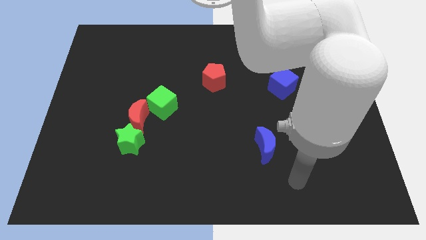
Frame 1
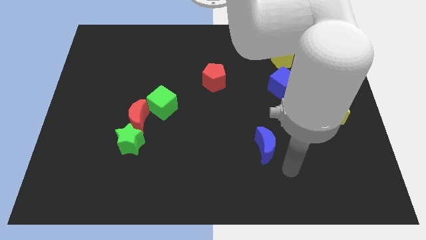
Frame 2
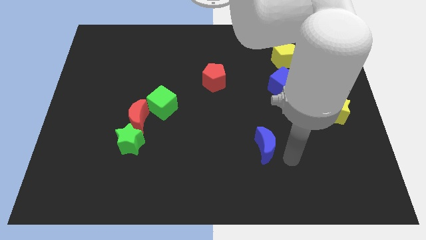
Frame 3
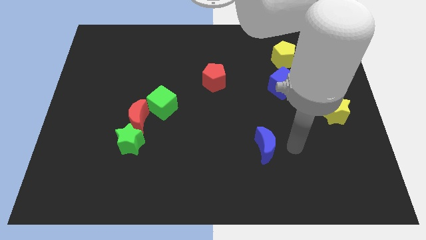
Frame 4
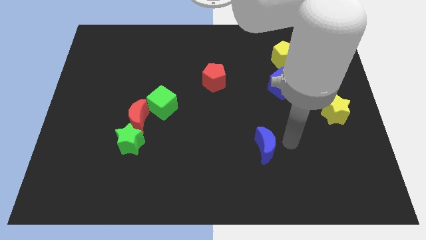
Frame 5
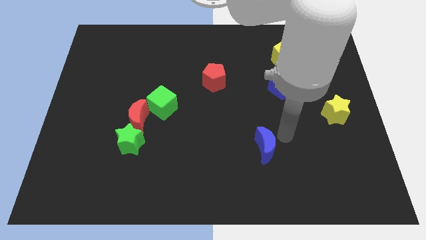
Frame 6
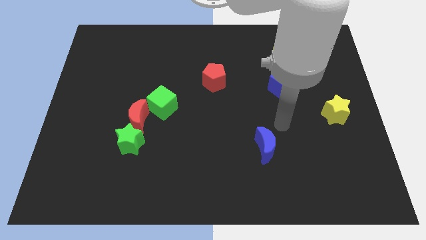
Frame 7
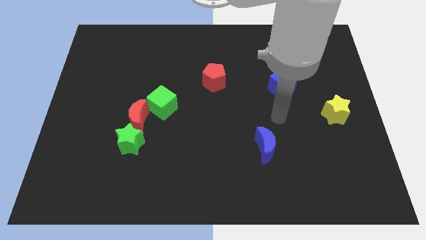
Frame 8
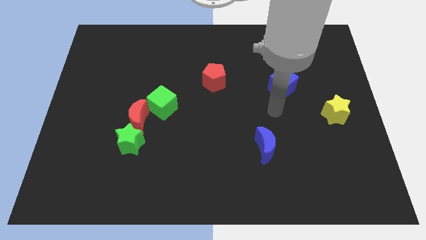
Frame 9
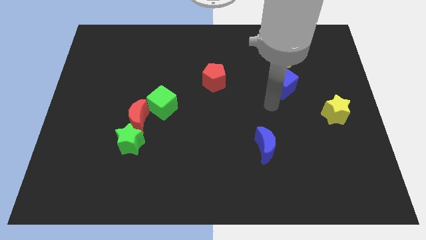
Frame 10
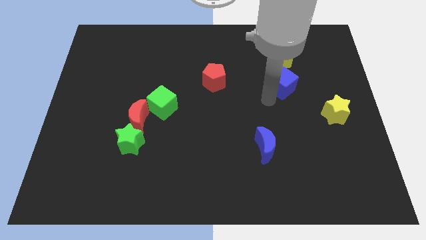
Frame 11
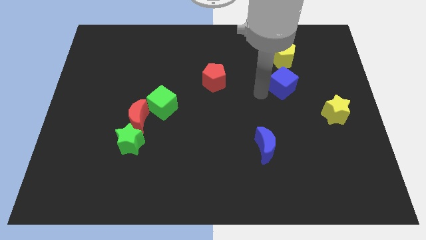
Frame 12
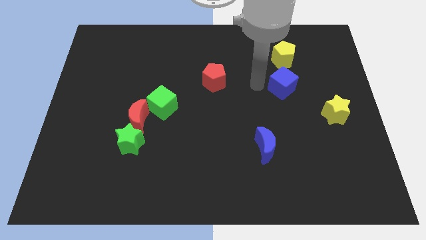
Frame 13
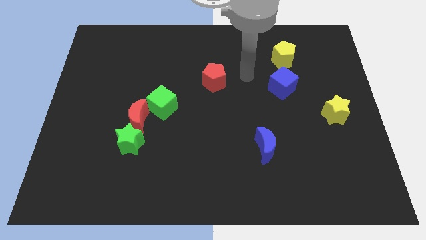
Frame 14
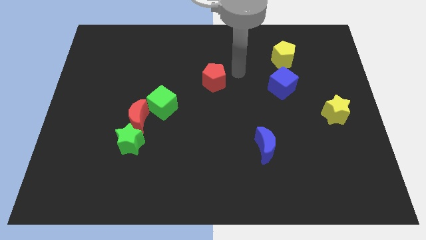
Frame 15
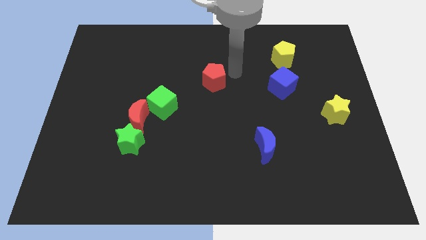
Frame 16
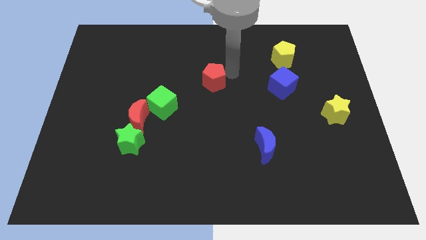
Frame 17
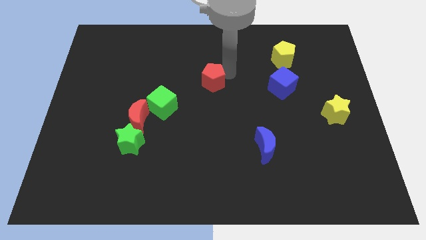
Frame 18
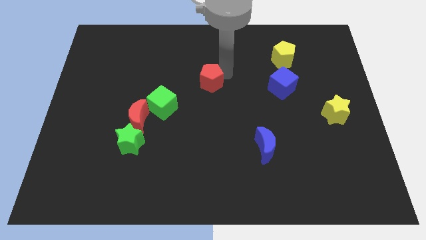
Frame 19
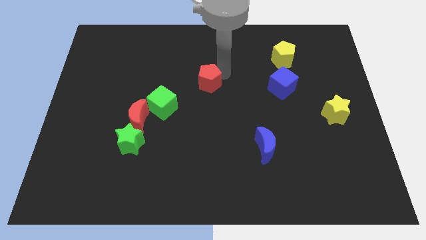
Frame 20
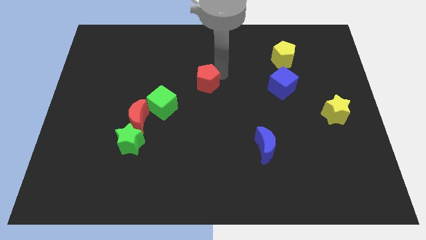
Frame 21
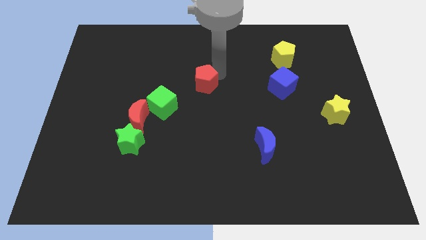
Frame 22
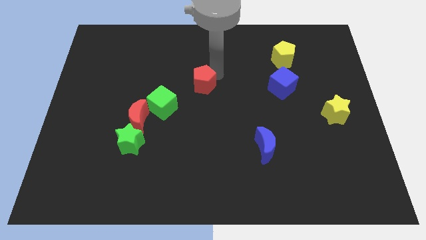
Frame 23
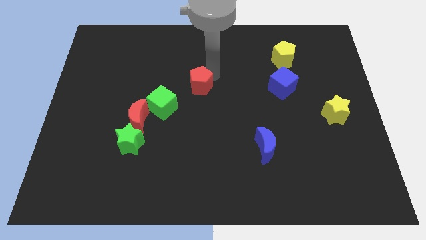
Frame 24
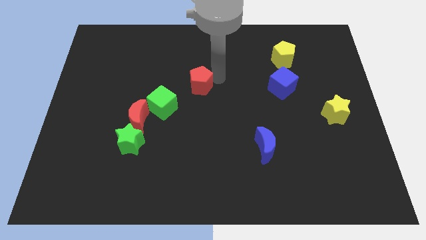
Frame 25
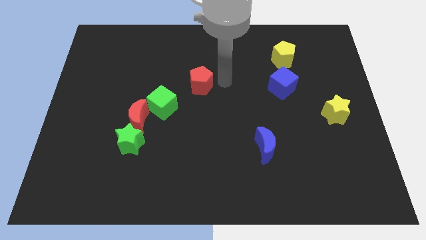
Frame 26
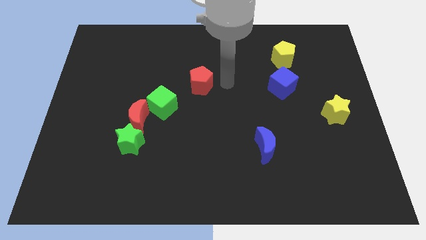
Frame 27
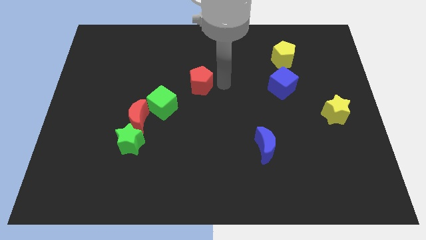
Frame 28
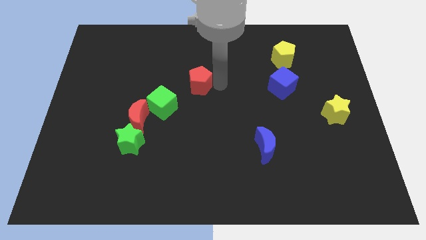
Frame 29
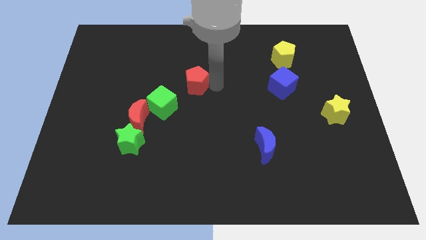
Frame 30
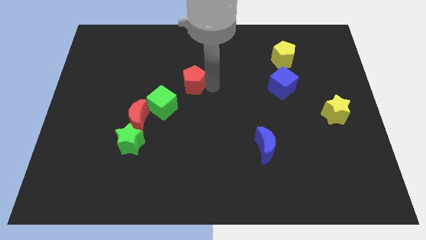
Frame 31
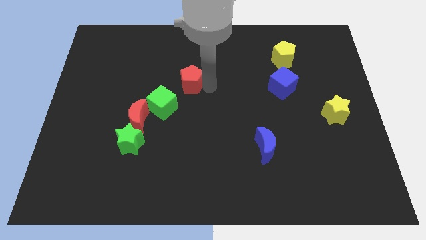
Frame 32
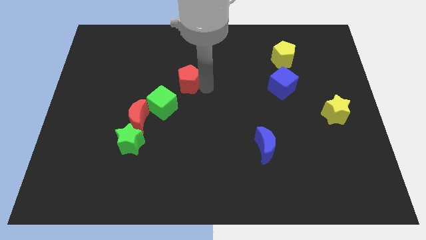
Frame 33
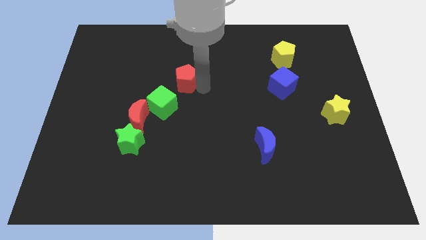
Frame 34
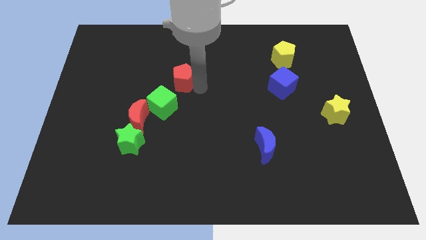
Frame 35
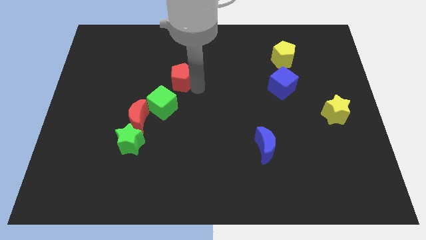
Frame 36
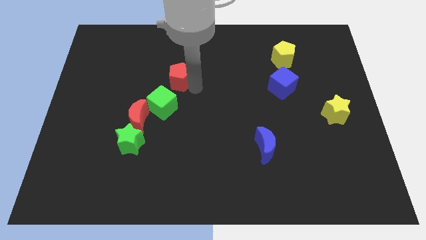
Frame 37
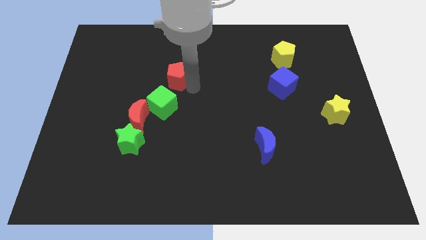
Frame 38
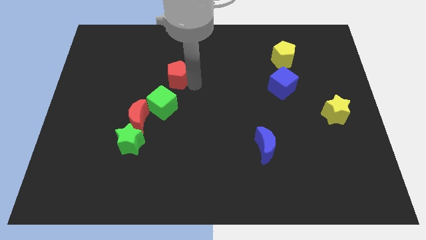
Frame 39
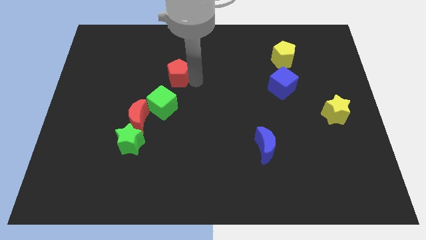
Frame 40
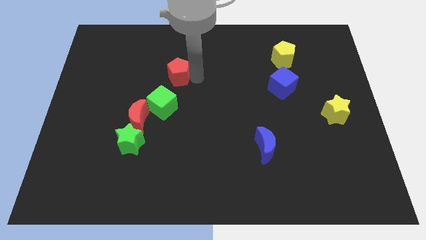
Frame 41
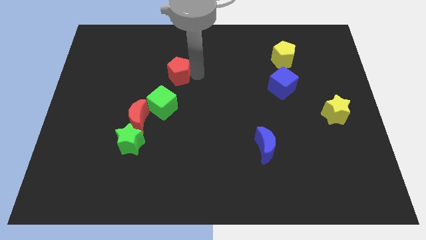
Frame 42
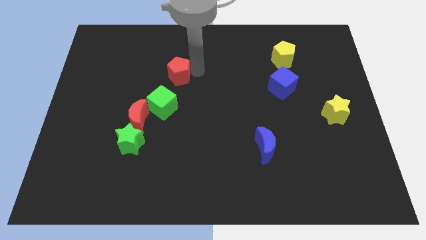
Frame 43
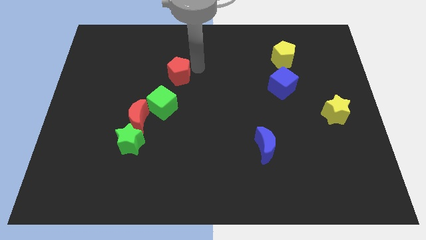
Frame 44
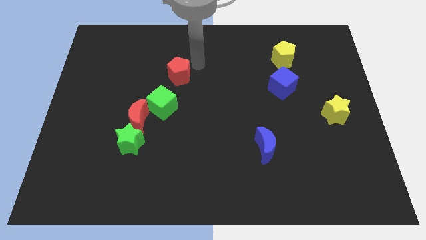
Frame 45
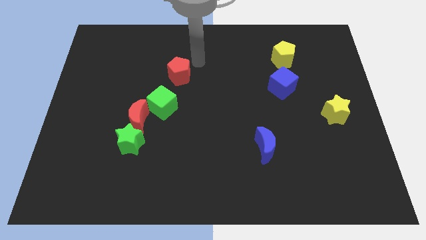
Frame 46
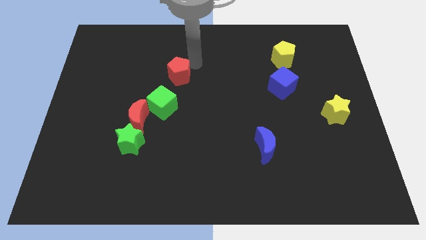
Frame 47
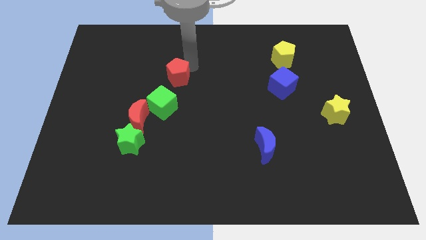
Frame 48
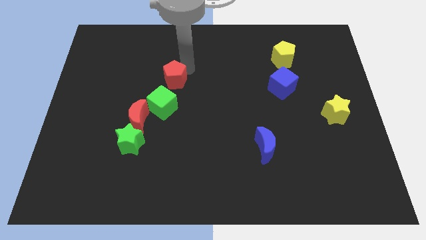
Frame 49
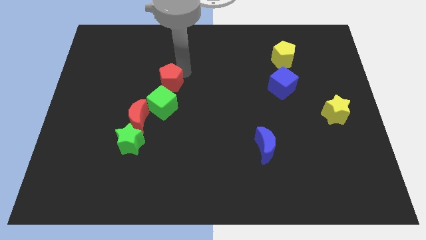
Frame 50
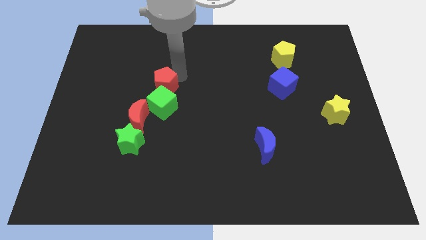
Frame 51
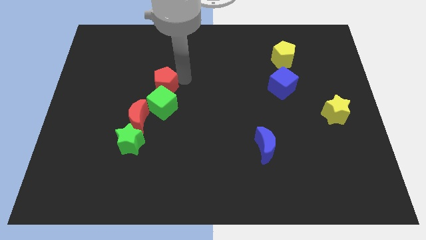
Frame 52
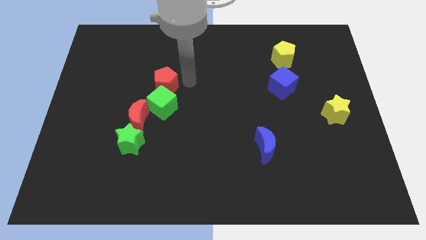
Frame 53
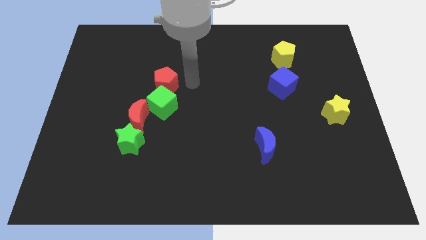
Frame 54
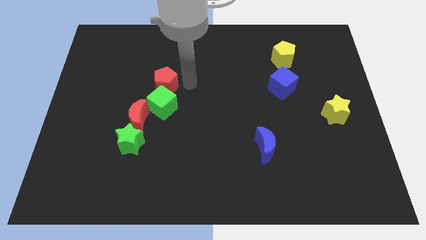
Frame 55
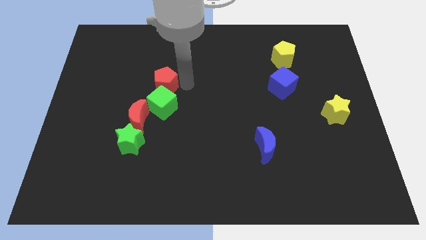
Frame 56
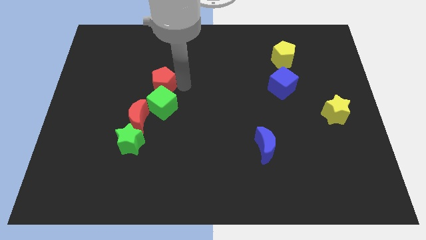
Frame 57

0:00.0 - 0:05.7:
push the red pentagon to the top of the red moon

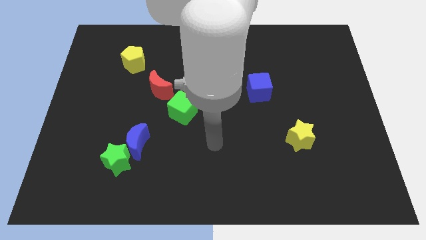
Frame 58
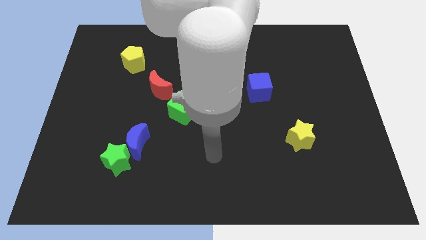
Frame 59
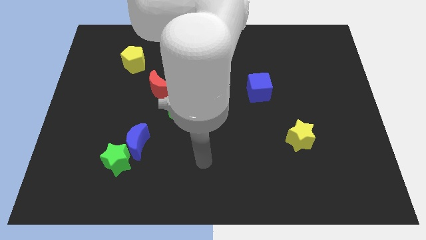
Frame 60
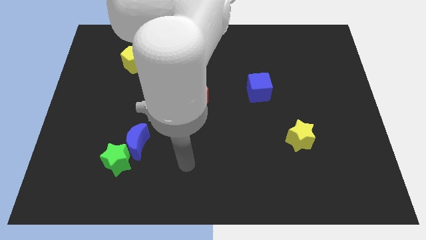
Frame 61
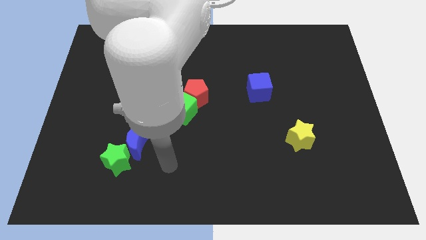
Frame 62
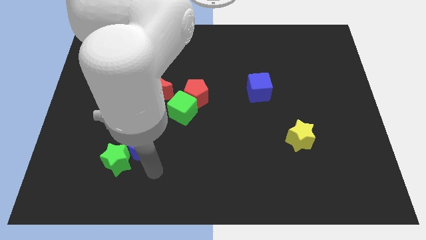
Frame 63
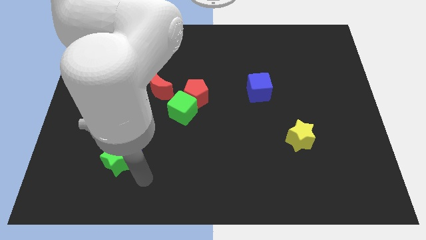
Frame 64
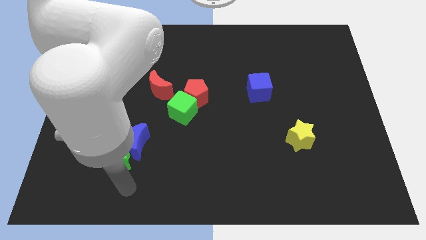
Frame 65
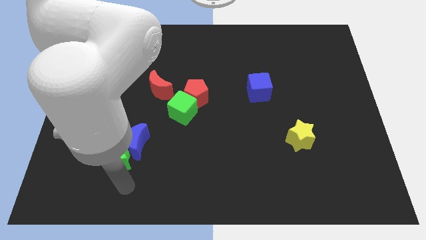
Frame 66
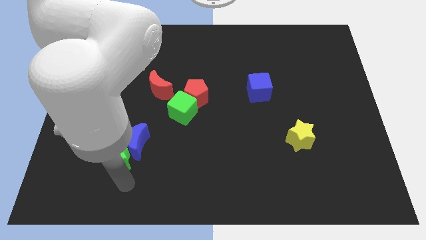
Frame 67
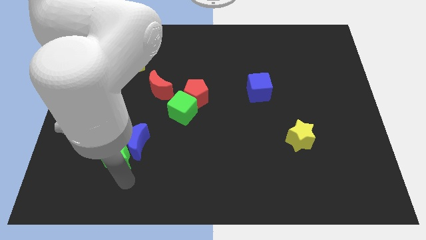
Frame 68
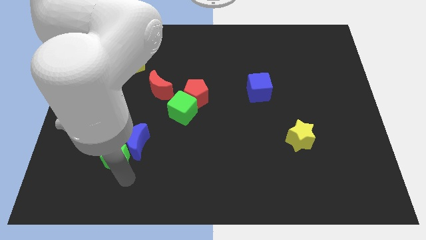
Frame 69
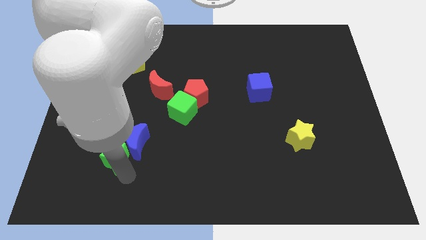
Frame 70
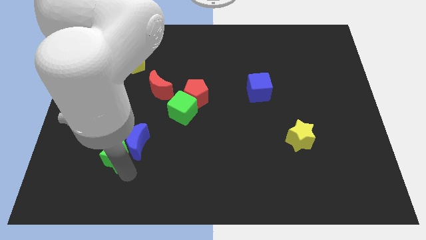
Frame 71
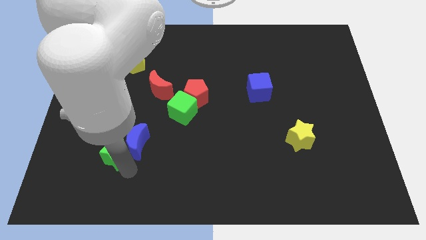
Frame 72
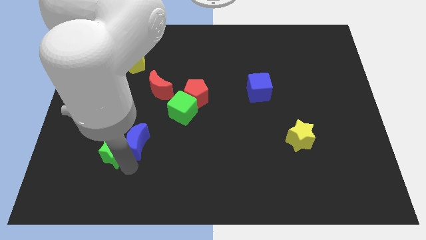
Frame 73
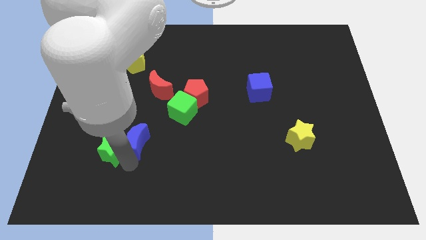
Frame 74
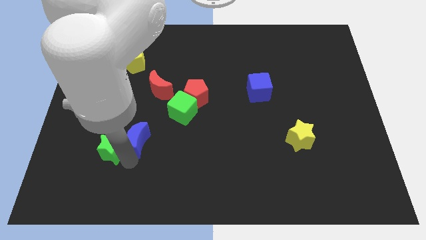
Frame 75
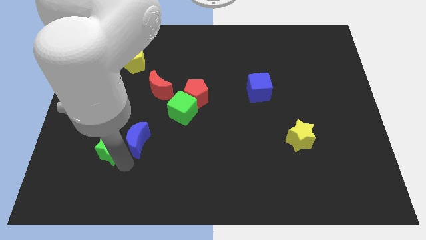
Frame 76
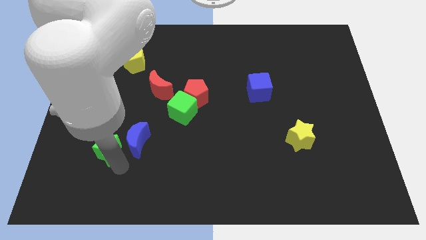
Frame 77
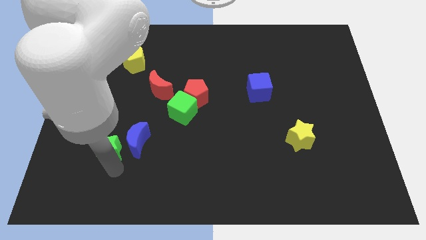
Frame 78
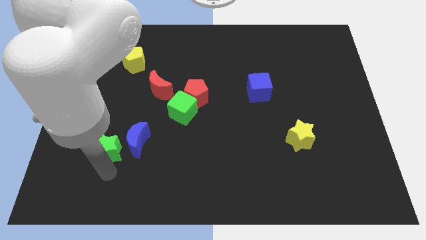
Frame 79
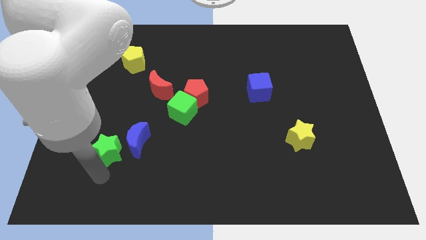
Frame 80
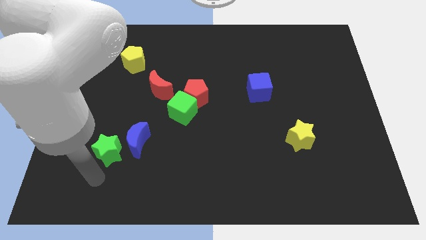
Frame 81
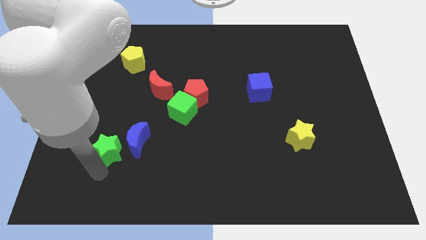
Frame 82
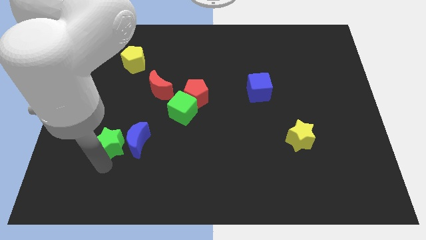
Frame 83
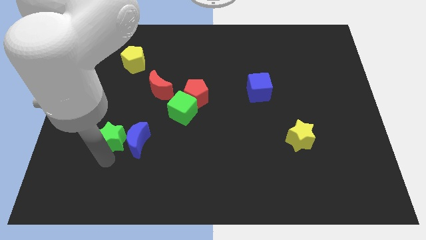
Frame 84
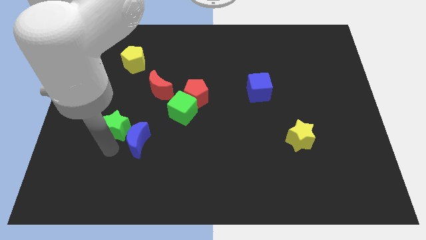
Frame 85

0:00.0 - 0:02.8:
put the green star to the top of the blue moon
